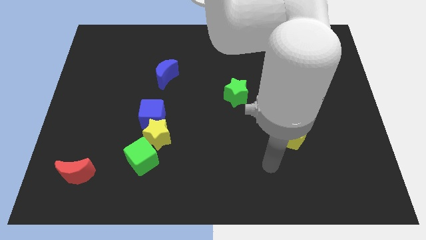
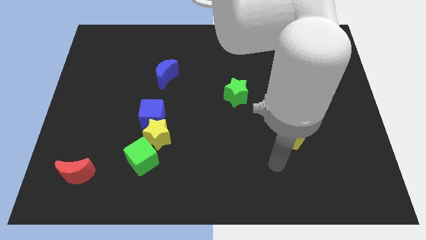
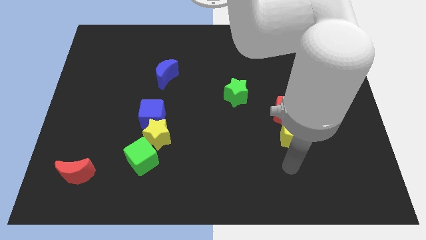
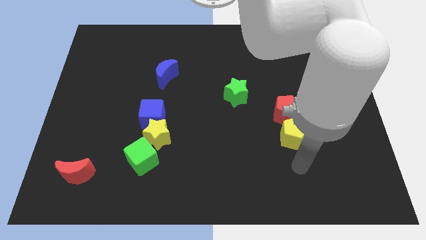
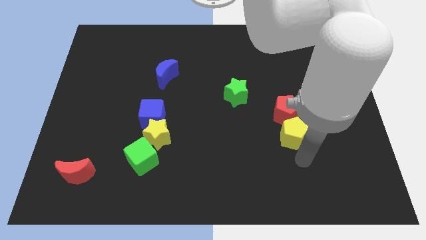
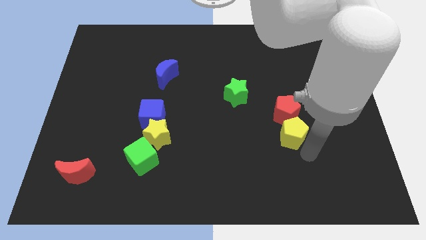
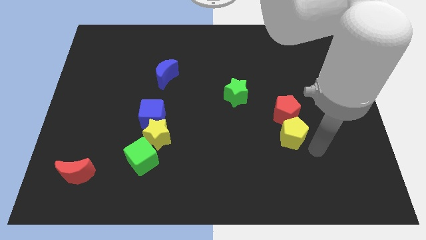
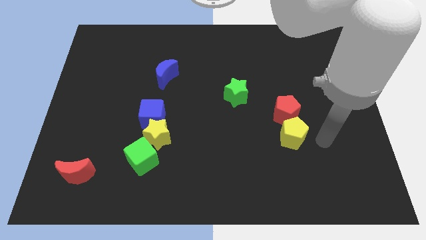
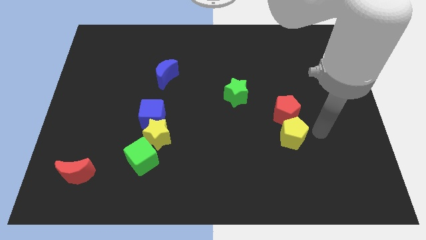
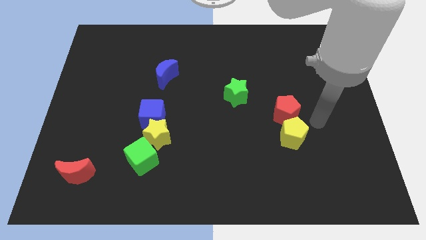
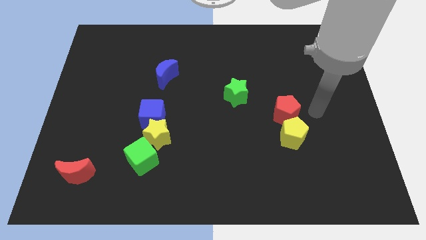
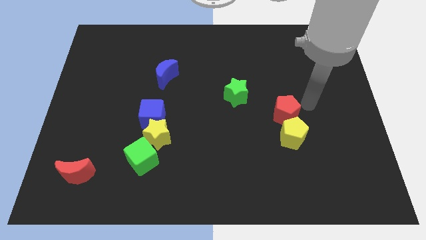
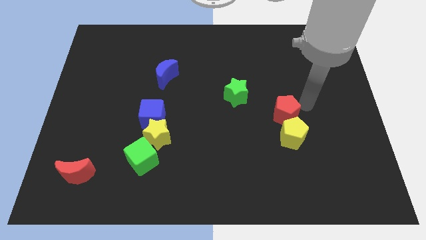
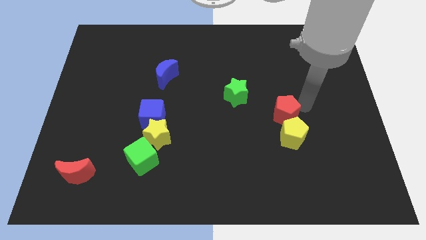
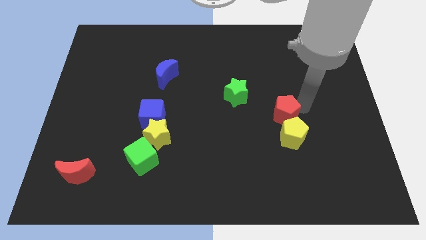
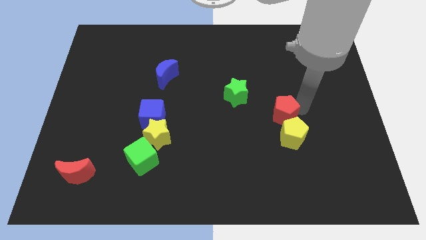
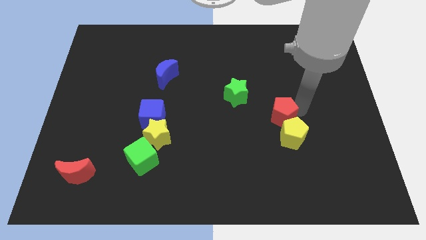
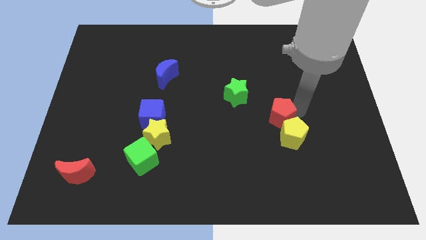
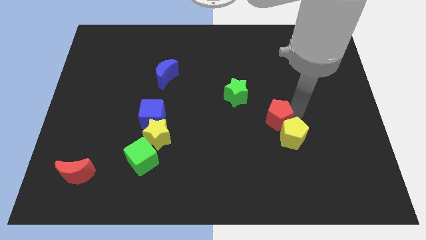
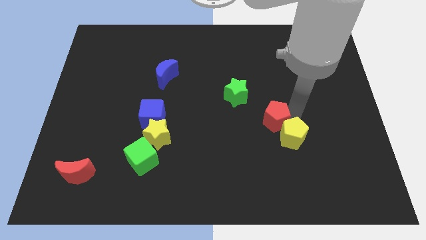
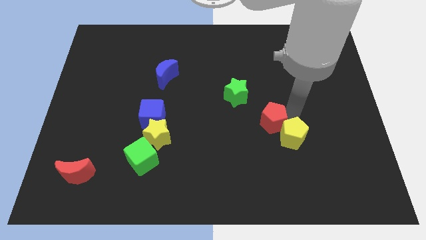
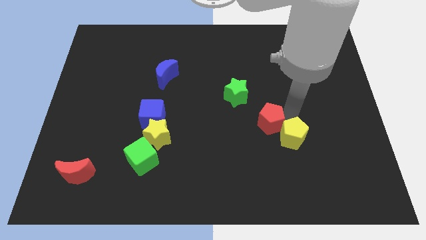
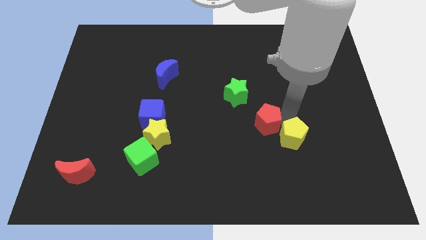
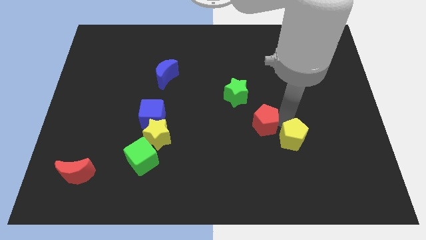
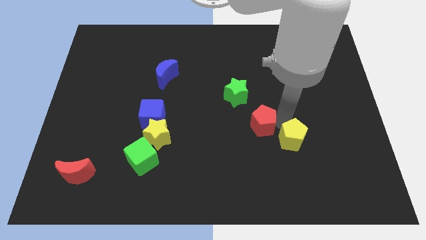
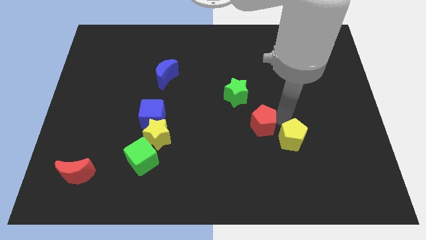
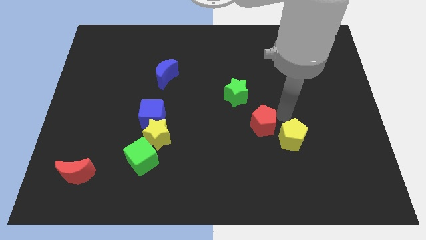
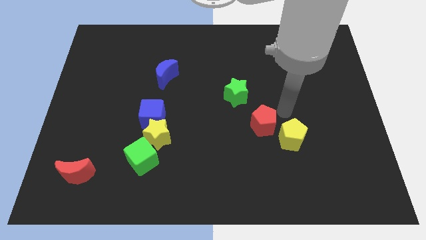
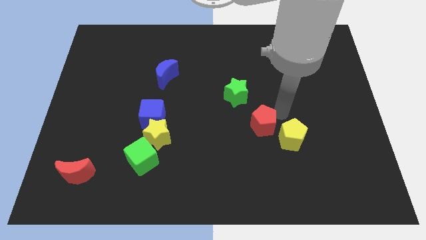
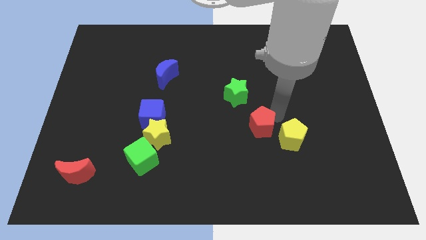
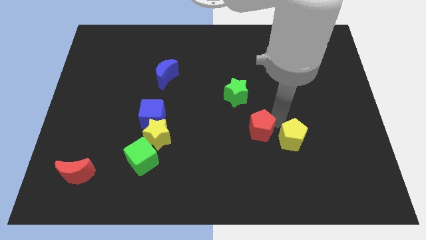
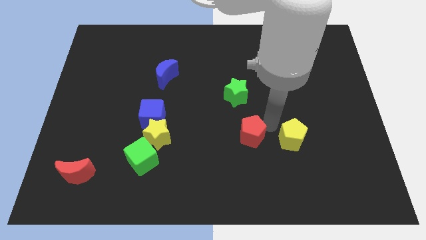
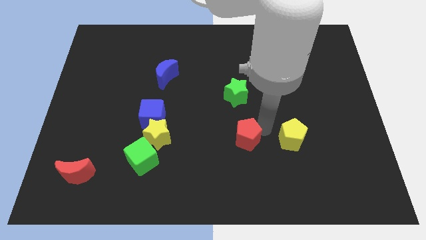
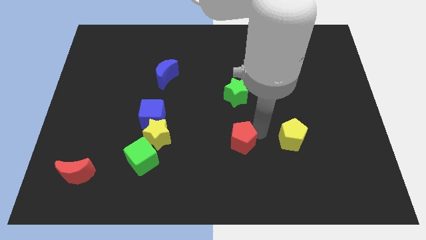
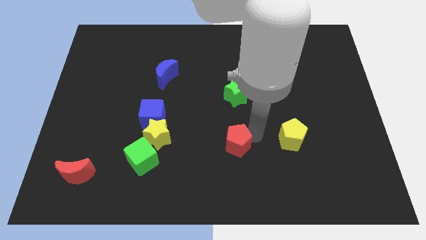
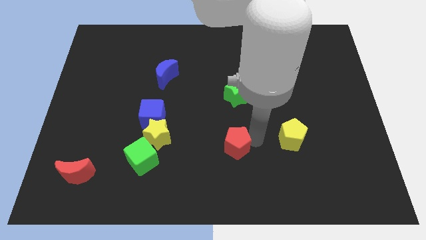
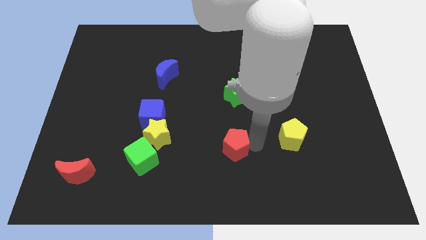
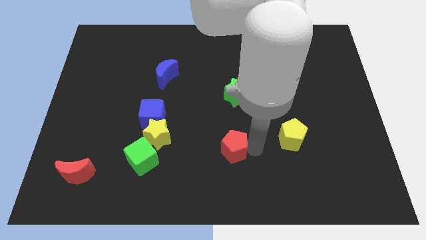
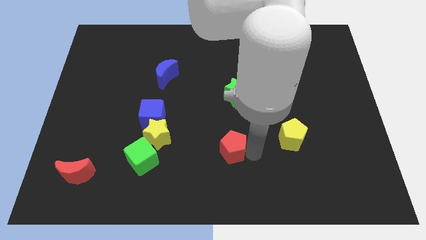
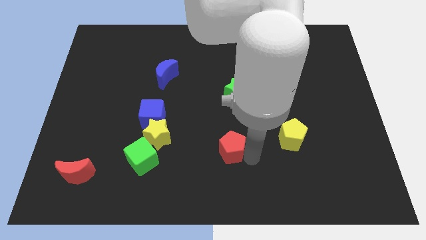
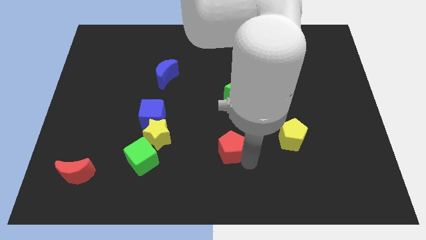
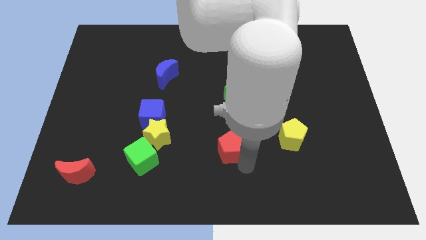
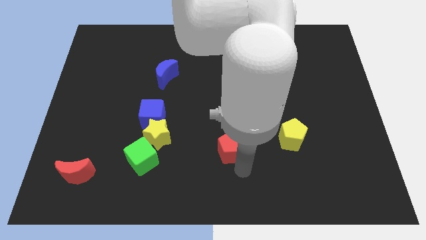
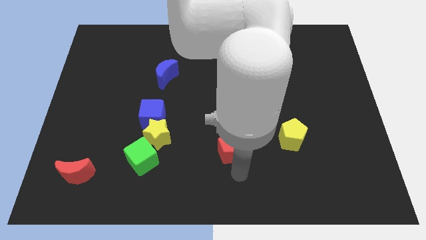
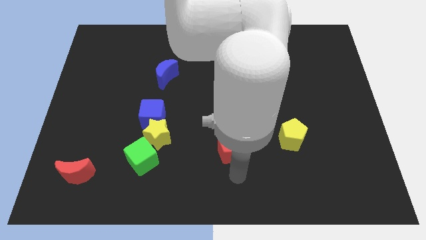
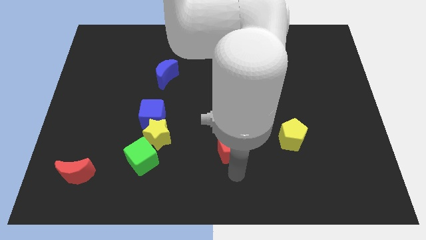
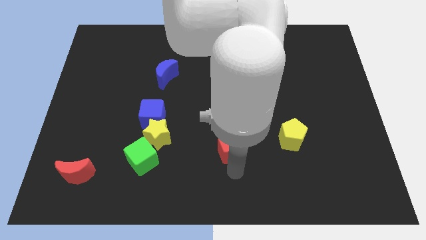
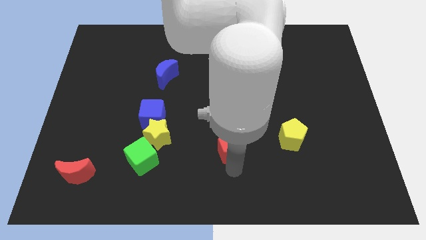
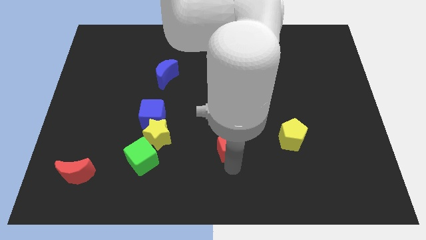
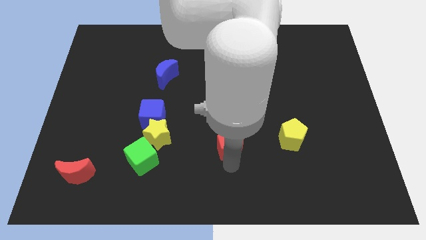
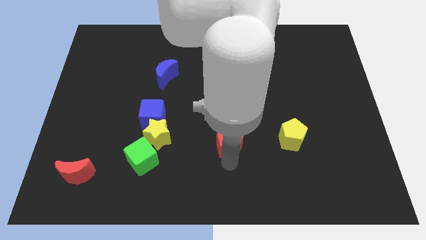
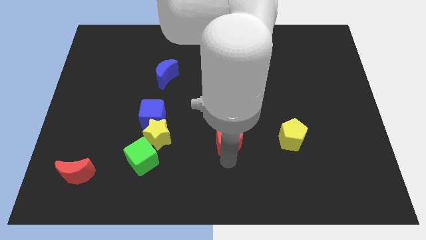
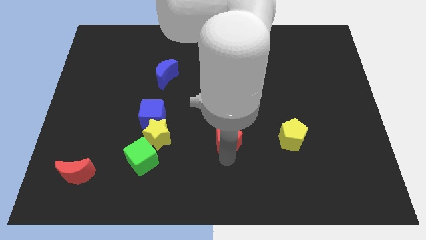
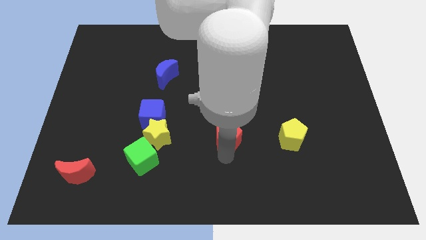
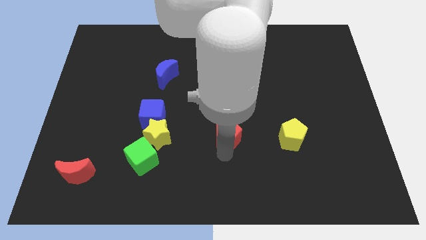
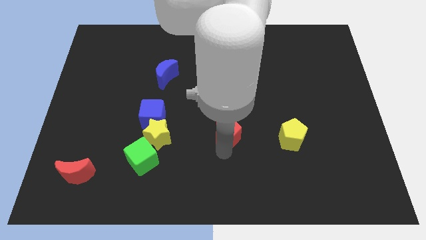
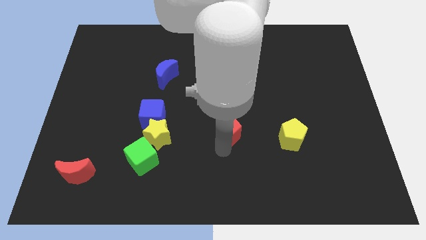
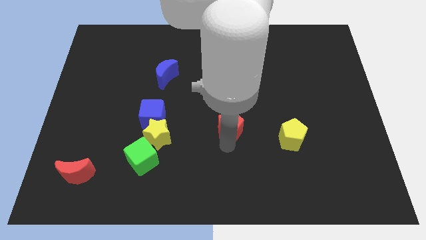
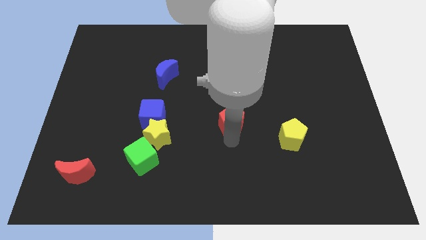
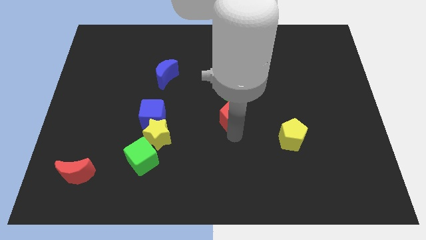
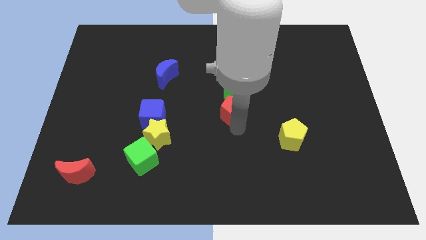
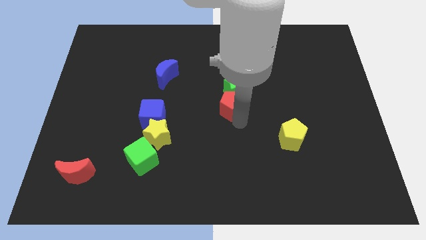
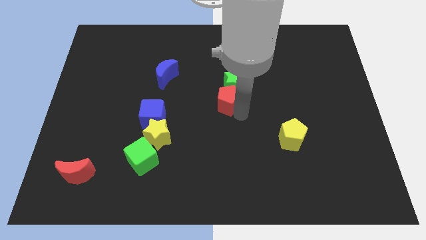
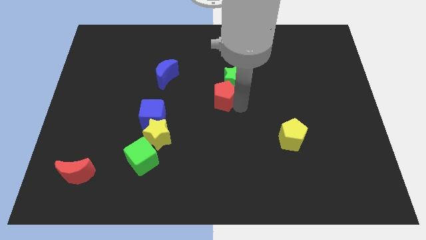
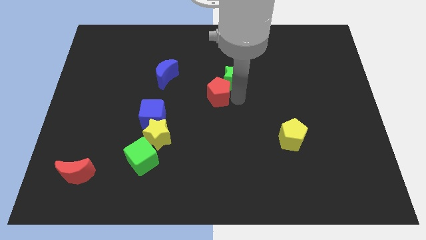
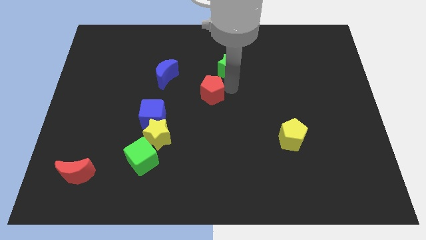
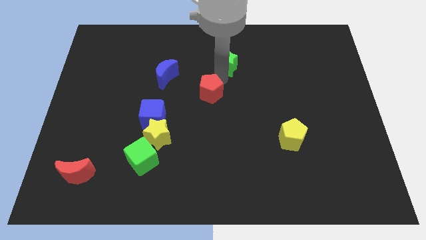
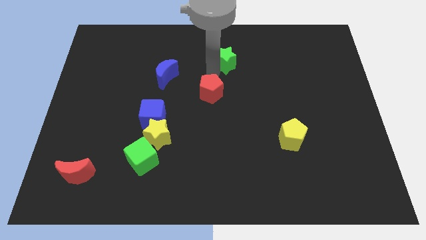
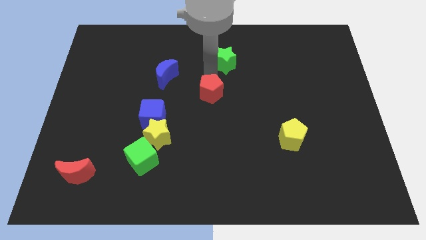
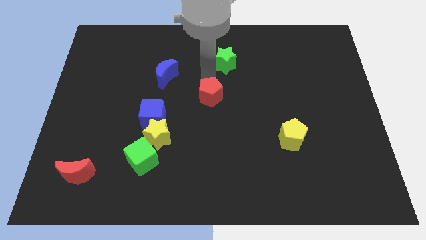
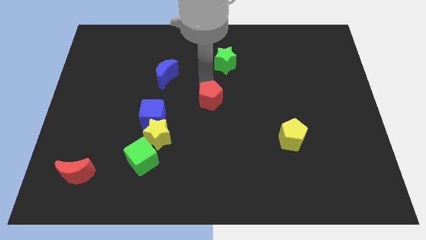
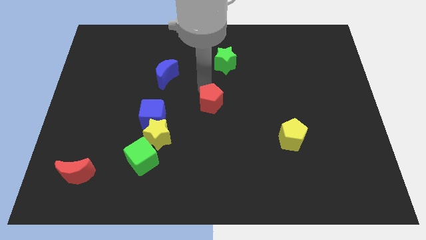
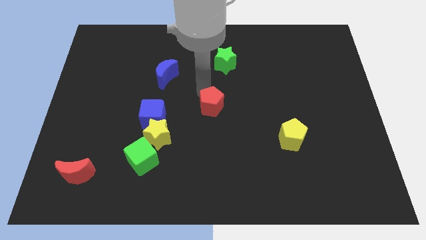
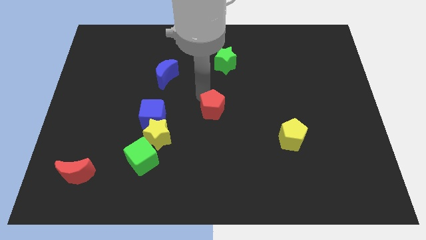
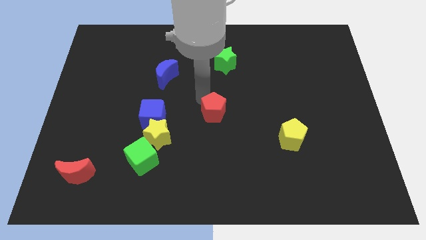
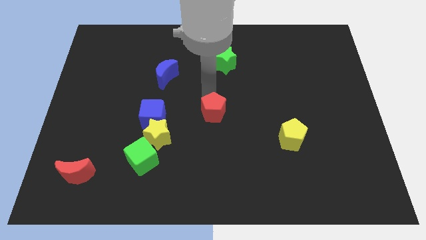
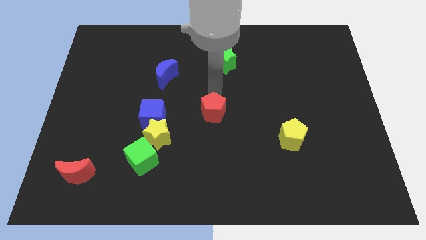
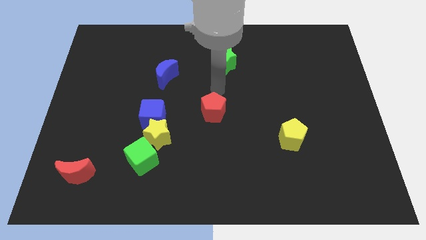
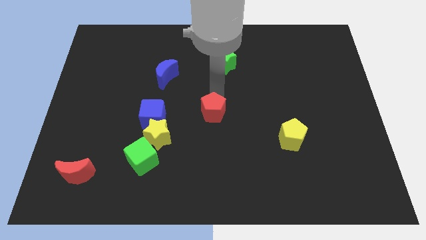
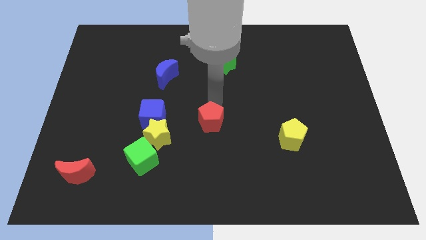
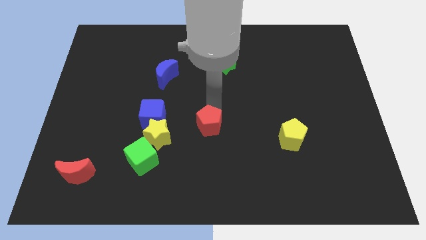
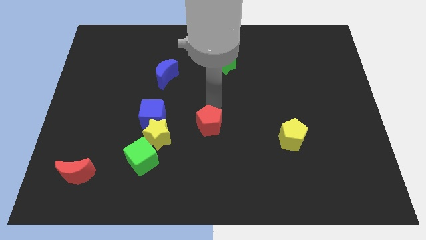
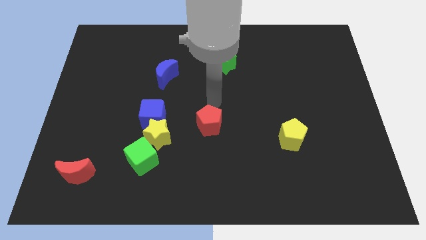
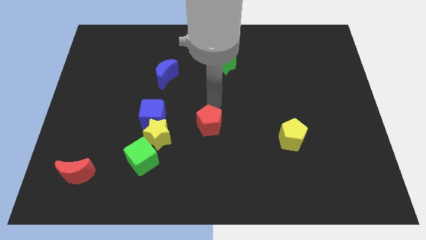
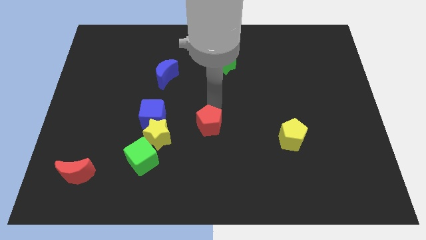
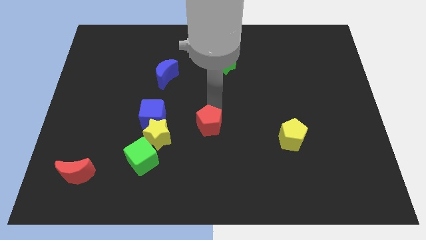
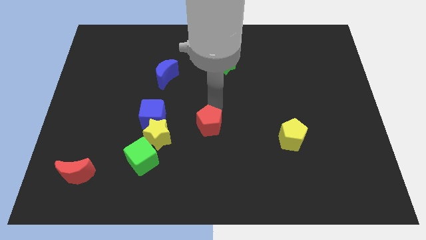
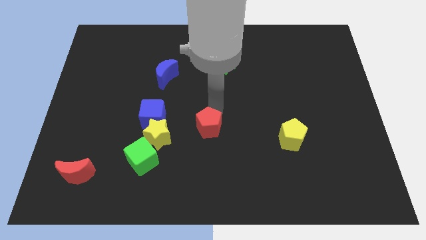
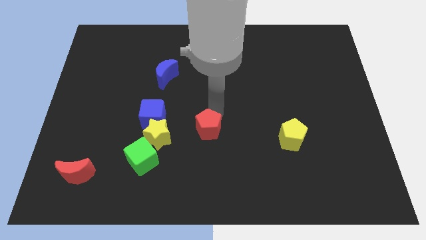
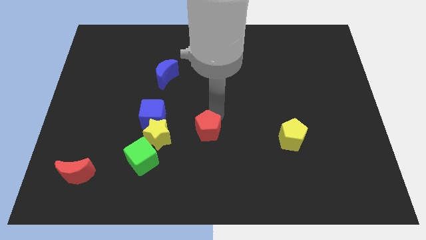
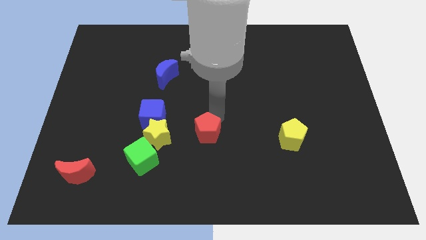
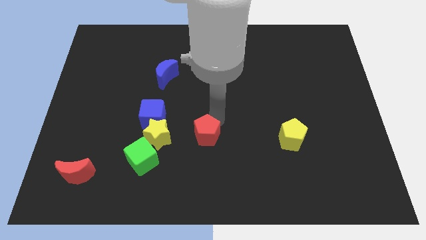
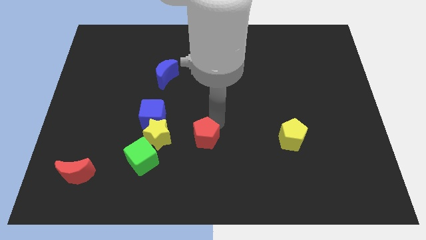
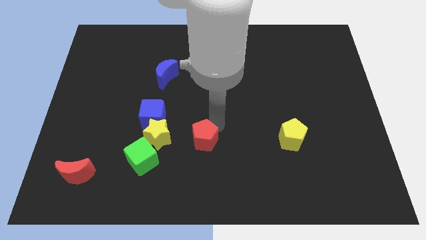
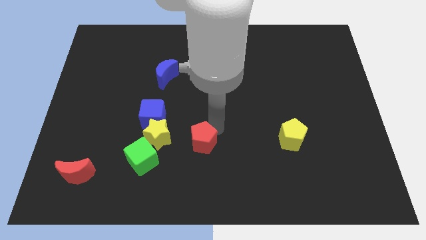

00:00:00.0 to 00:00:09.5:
put the red pentagon right of the green cube
